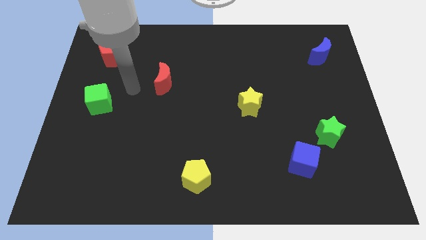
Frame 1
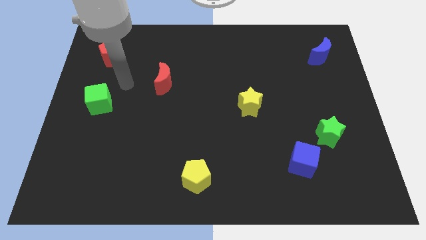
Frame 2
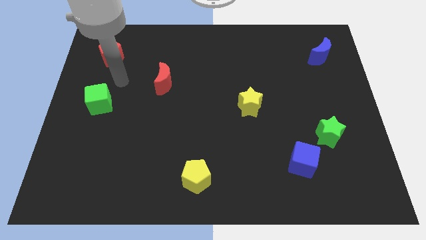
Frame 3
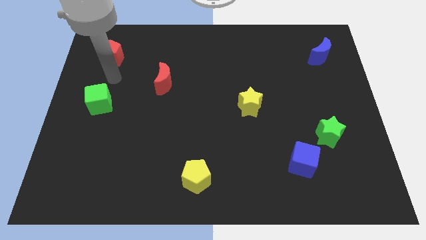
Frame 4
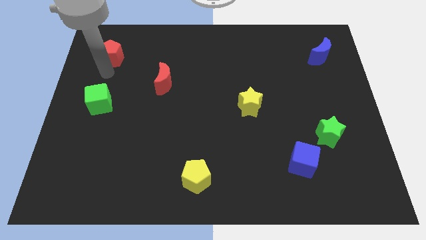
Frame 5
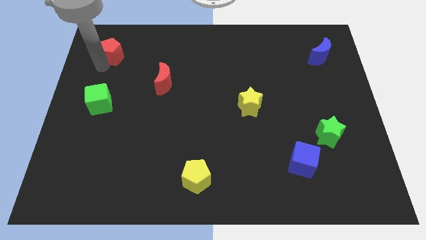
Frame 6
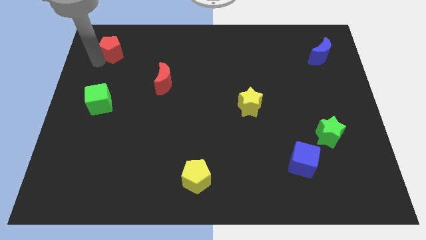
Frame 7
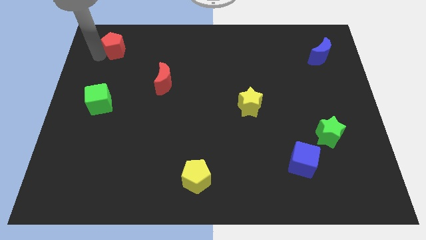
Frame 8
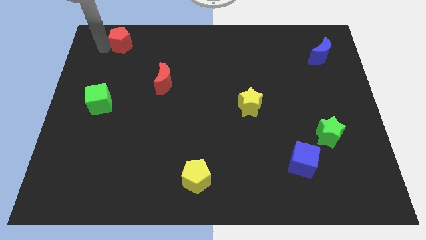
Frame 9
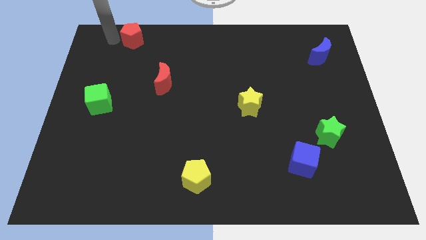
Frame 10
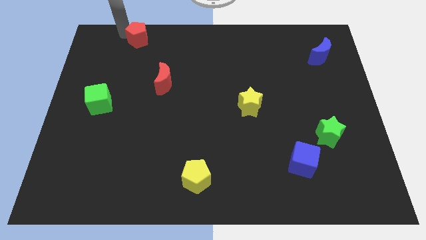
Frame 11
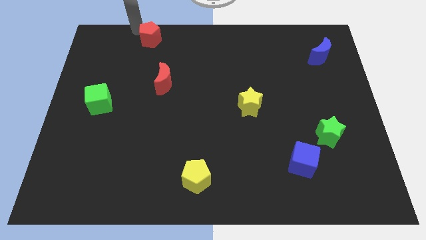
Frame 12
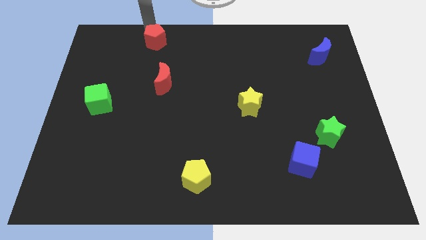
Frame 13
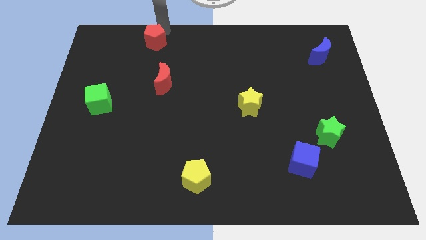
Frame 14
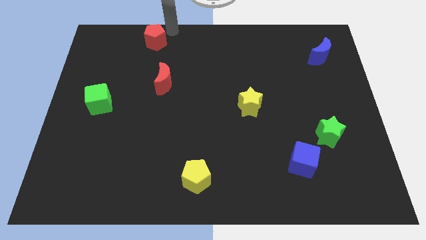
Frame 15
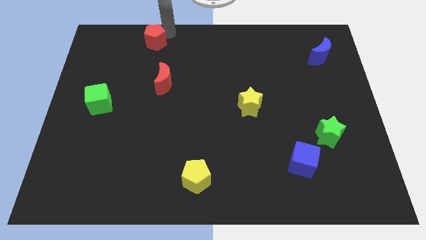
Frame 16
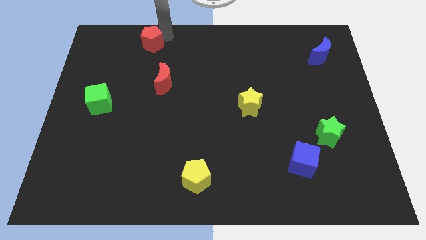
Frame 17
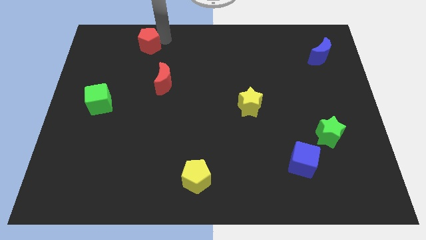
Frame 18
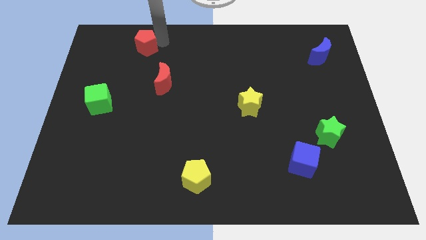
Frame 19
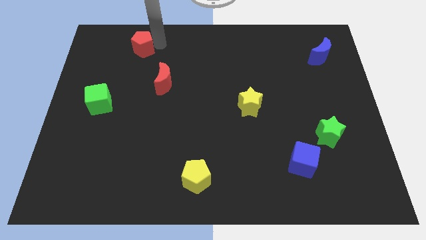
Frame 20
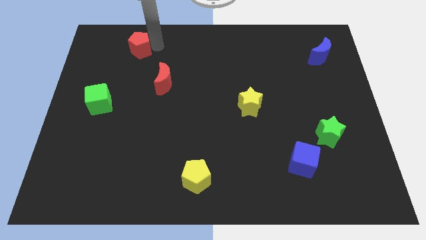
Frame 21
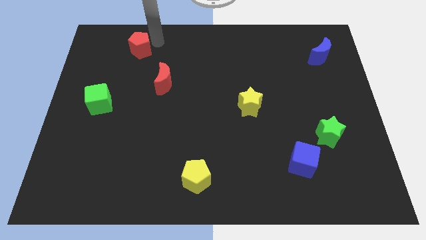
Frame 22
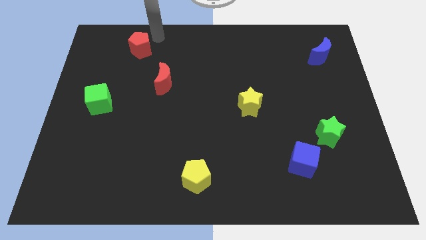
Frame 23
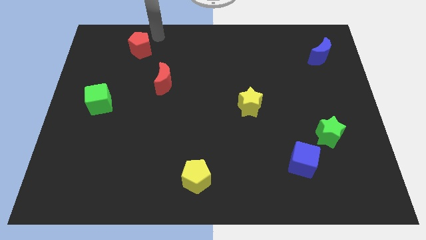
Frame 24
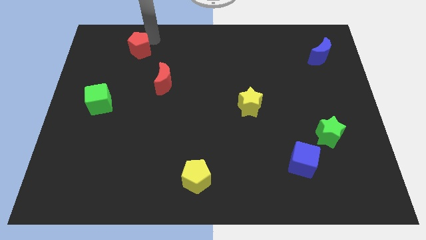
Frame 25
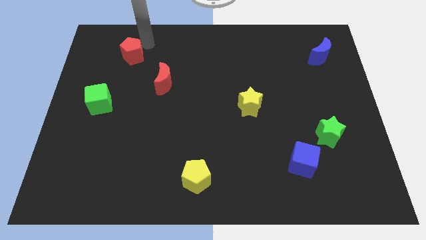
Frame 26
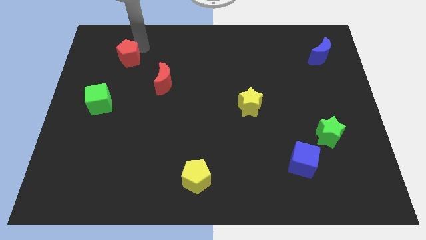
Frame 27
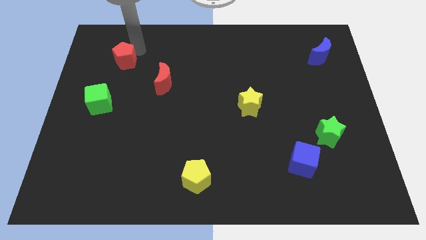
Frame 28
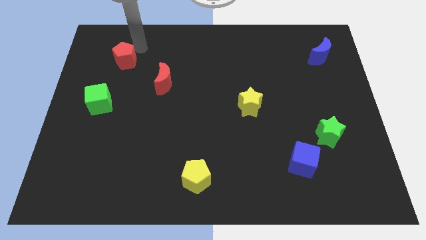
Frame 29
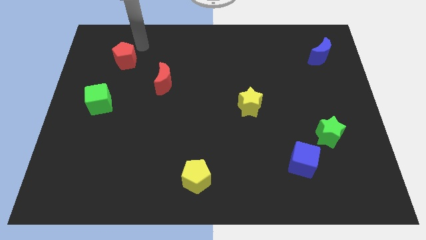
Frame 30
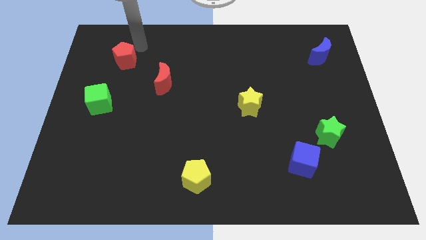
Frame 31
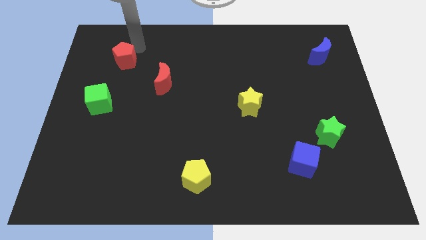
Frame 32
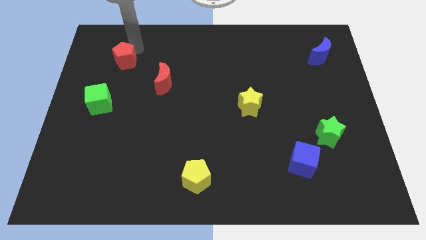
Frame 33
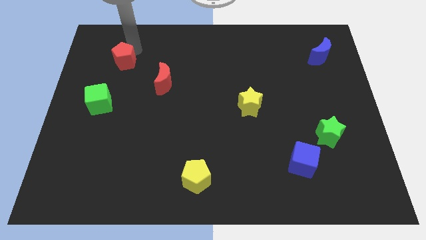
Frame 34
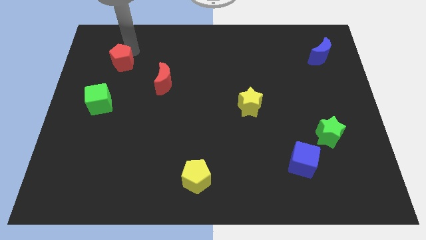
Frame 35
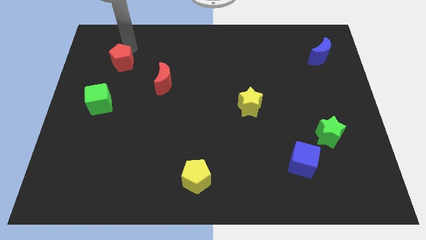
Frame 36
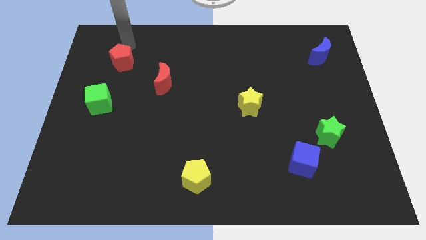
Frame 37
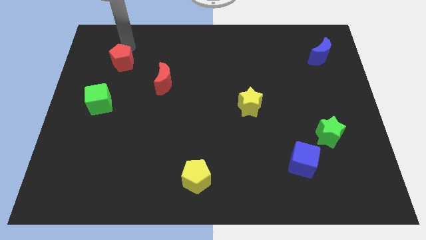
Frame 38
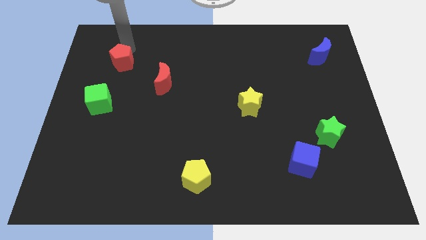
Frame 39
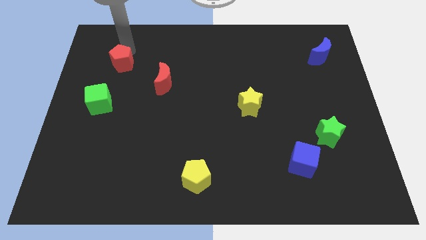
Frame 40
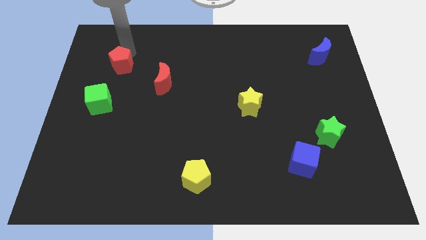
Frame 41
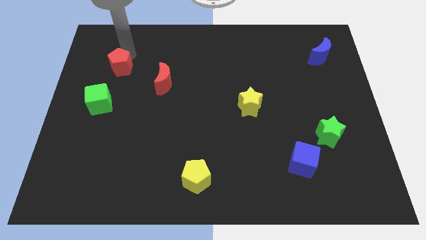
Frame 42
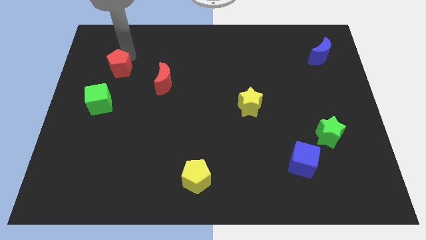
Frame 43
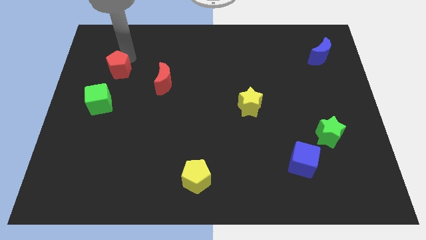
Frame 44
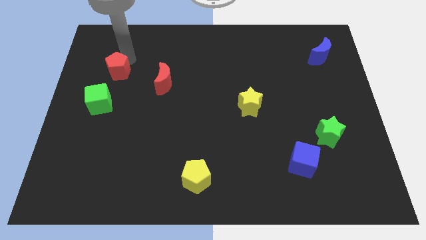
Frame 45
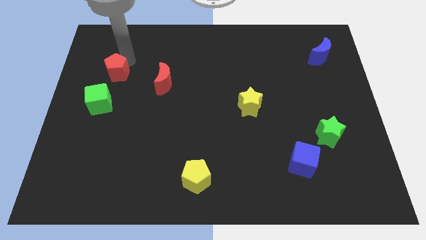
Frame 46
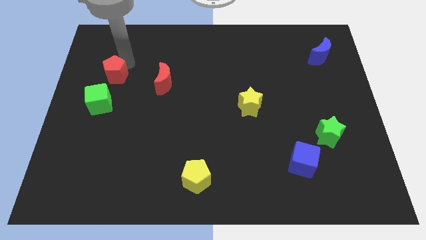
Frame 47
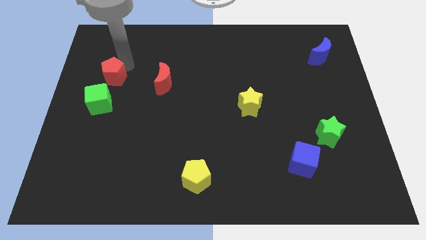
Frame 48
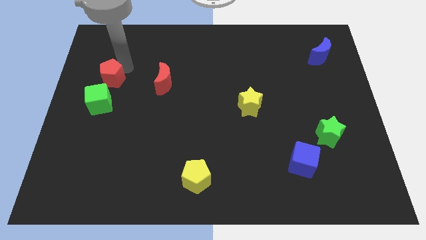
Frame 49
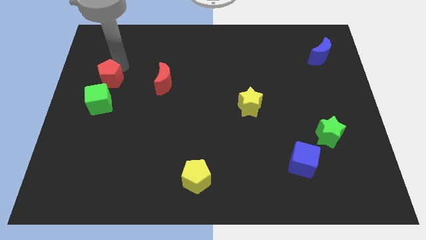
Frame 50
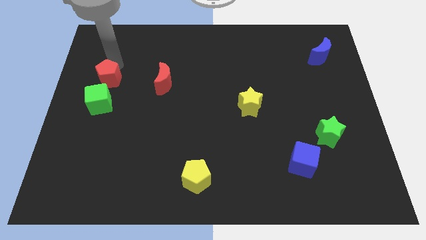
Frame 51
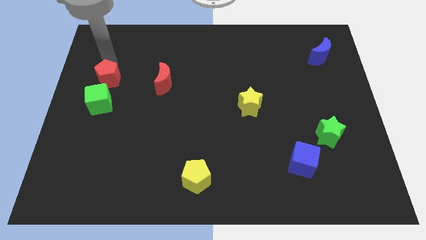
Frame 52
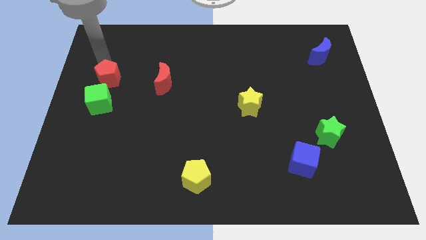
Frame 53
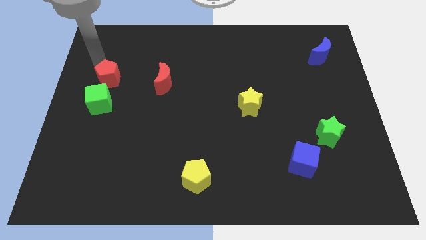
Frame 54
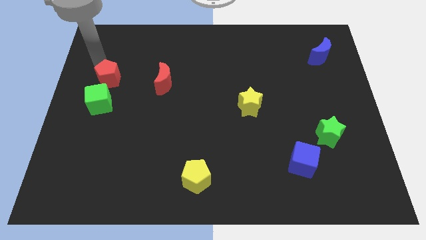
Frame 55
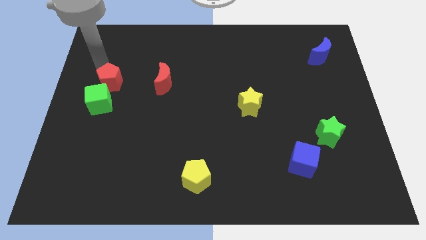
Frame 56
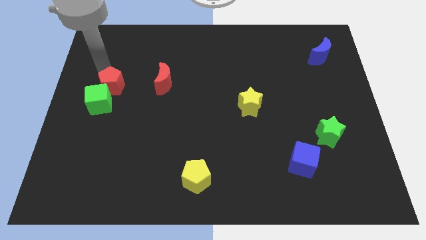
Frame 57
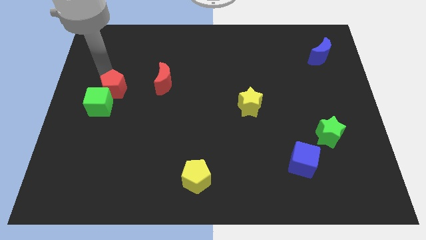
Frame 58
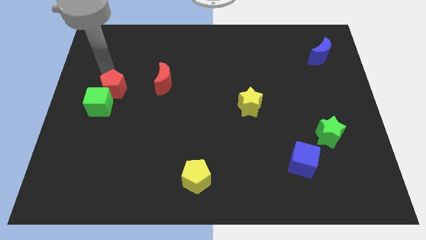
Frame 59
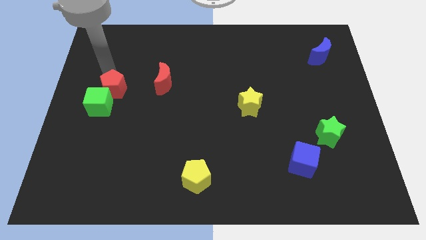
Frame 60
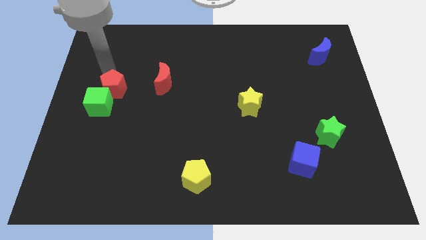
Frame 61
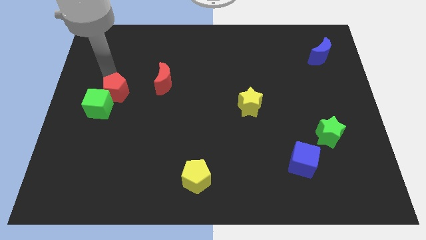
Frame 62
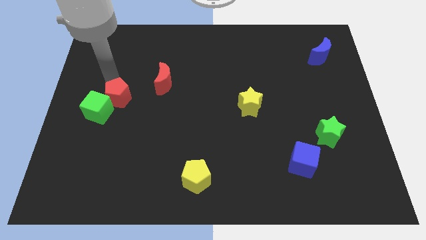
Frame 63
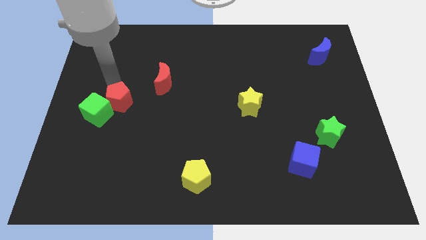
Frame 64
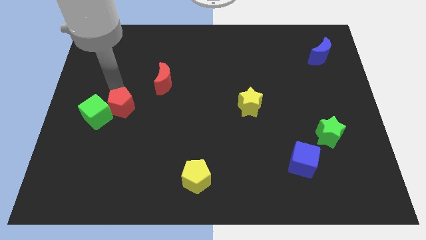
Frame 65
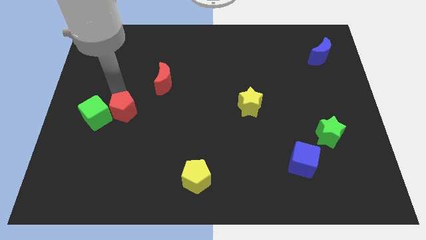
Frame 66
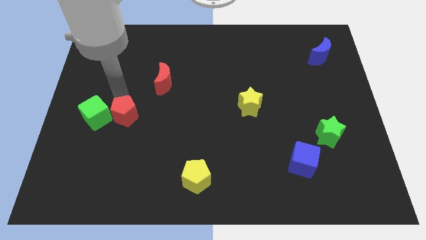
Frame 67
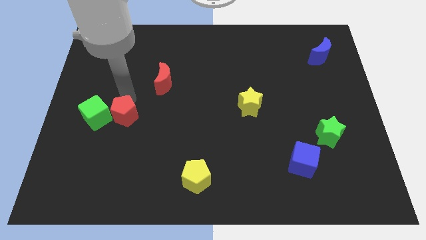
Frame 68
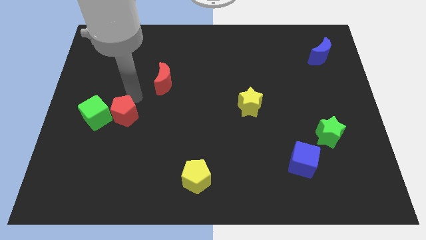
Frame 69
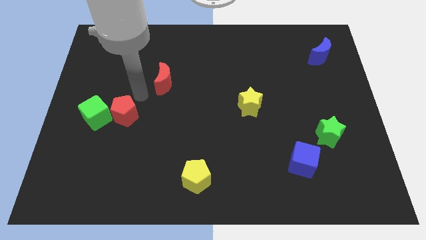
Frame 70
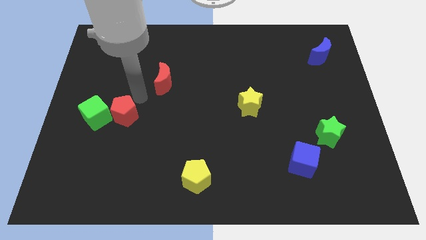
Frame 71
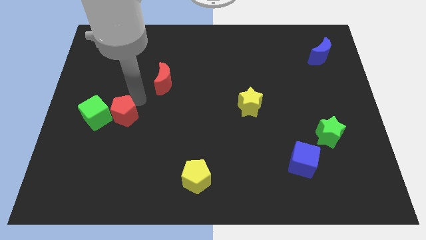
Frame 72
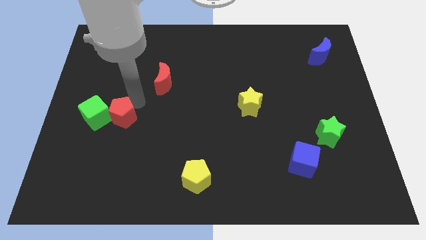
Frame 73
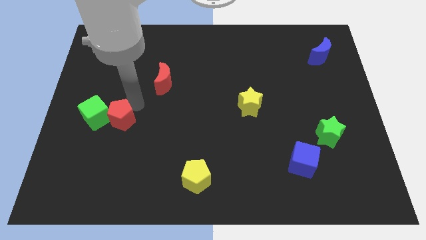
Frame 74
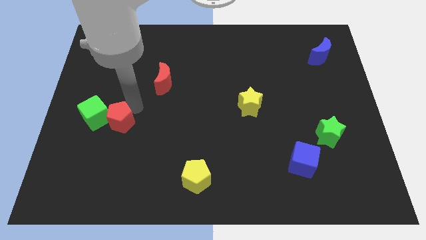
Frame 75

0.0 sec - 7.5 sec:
move the red pentagon down

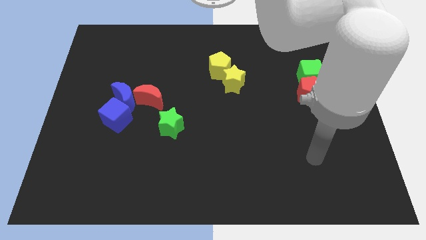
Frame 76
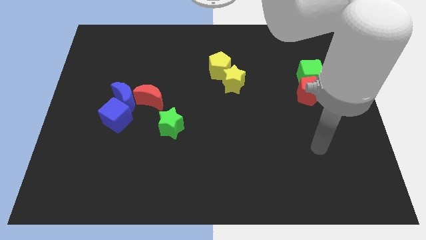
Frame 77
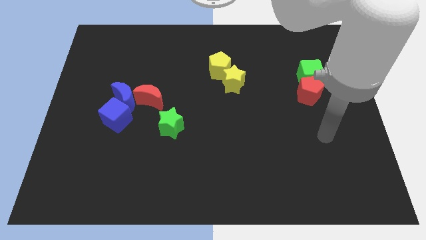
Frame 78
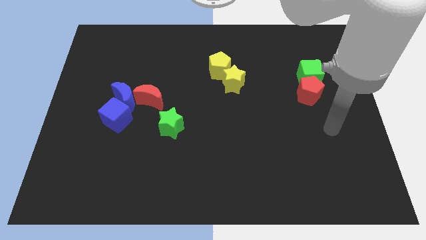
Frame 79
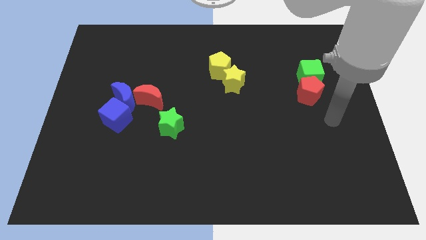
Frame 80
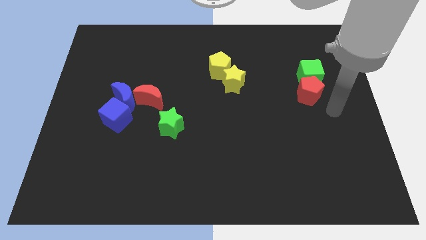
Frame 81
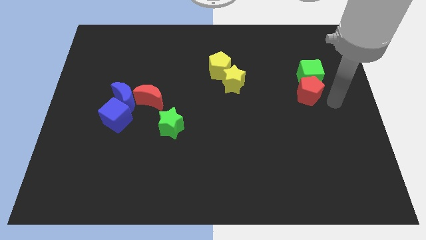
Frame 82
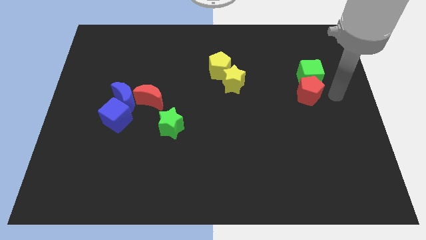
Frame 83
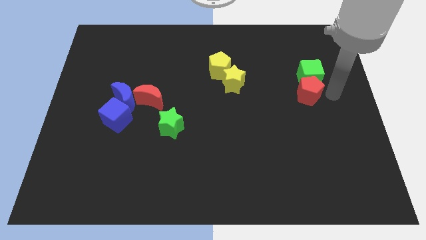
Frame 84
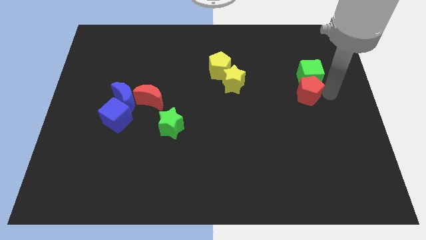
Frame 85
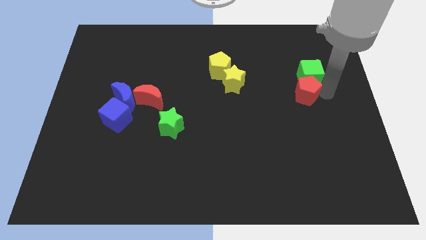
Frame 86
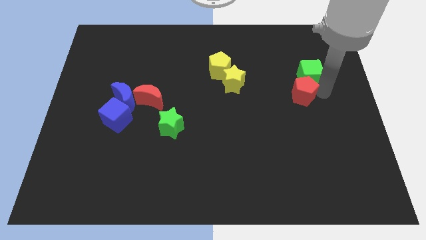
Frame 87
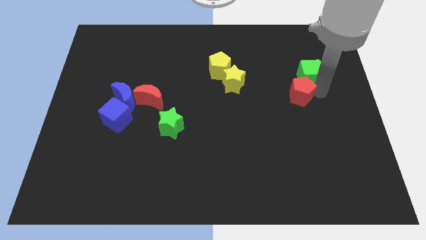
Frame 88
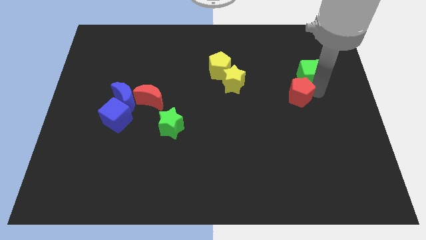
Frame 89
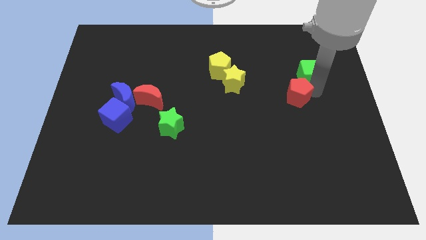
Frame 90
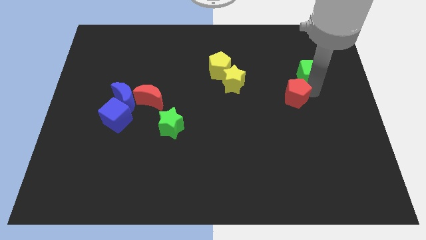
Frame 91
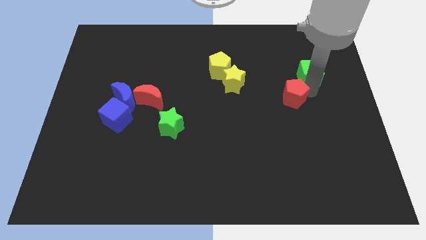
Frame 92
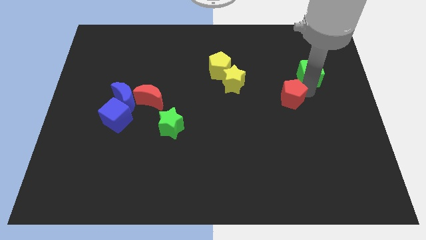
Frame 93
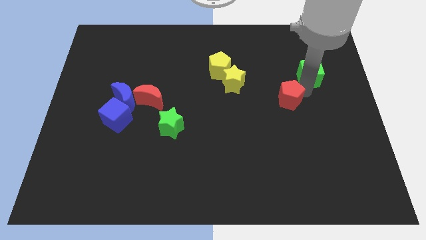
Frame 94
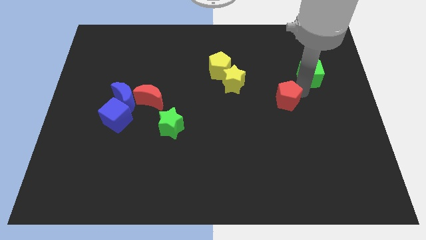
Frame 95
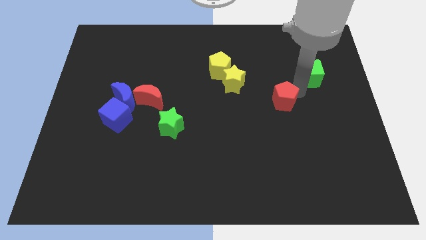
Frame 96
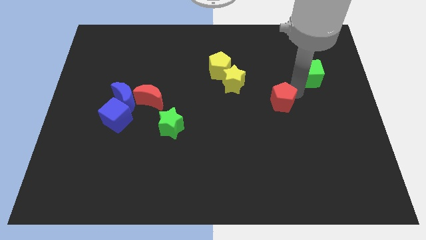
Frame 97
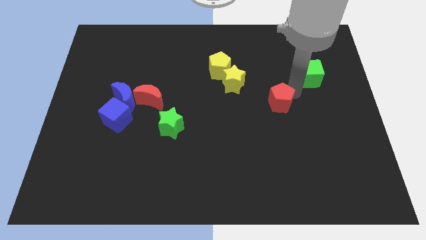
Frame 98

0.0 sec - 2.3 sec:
push the red pentagon a bit to the left
